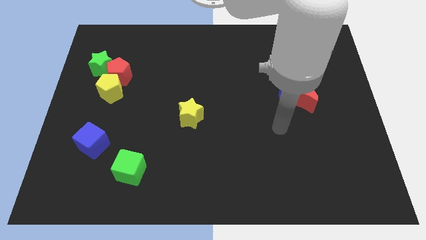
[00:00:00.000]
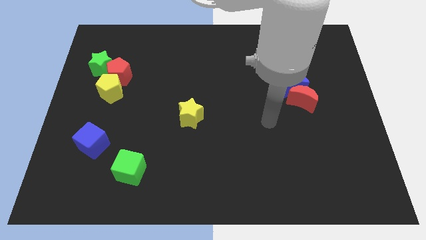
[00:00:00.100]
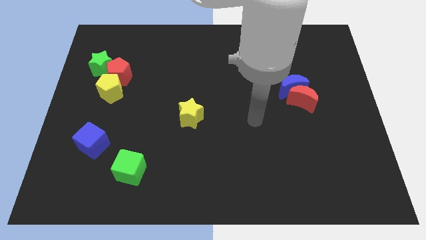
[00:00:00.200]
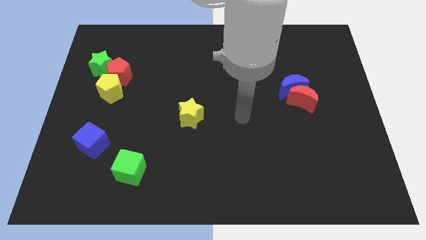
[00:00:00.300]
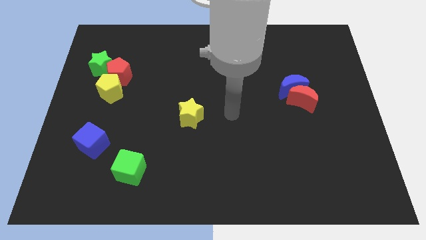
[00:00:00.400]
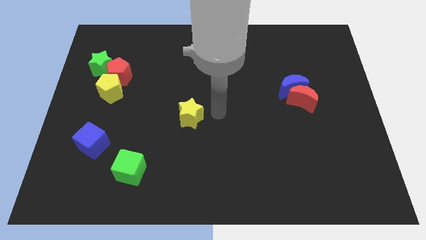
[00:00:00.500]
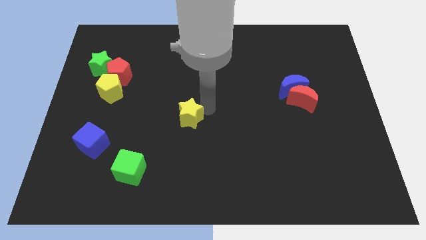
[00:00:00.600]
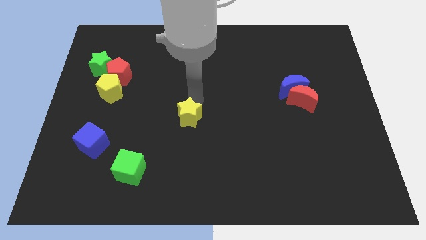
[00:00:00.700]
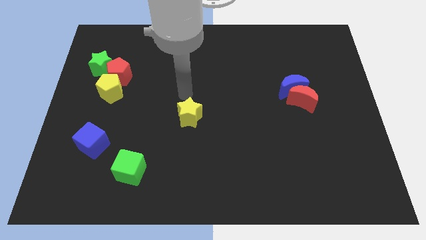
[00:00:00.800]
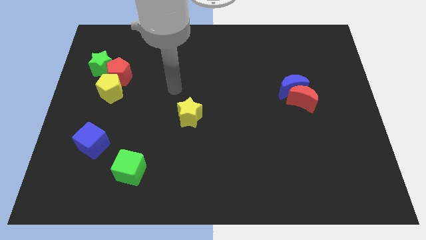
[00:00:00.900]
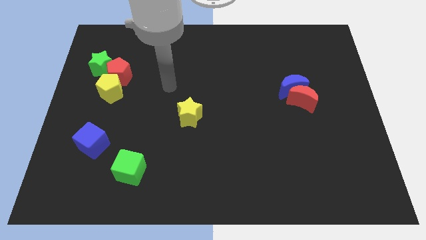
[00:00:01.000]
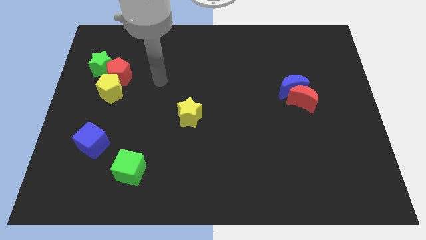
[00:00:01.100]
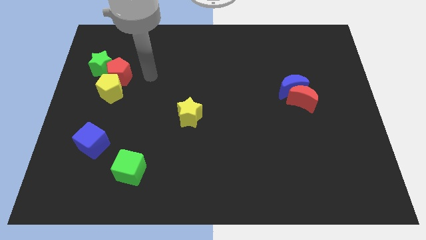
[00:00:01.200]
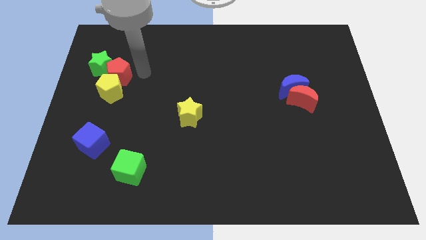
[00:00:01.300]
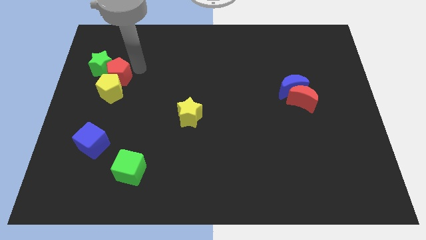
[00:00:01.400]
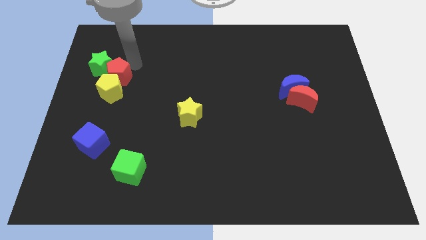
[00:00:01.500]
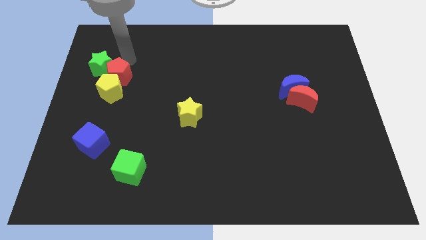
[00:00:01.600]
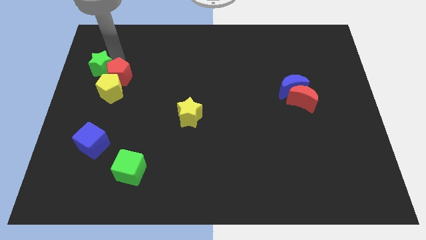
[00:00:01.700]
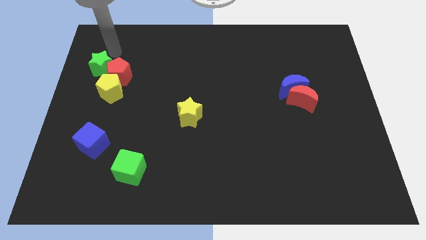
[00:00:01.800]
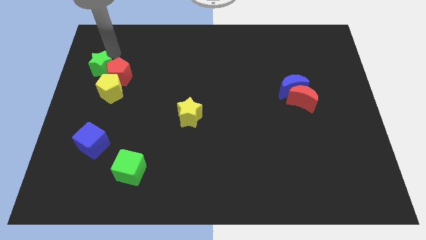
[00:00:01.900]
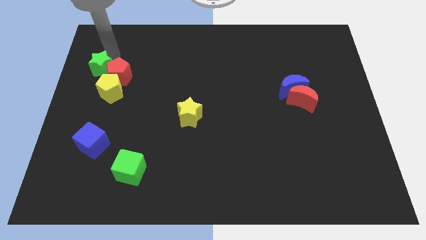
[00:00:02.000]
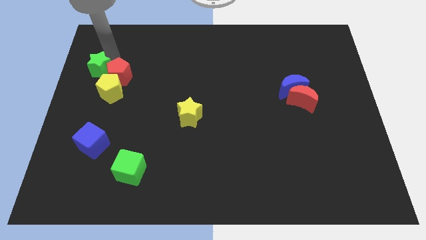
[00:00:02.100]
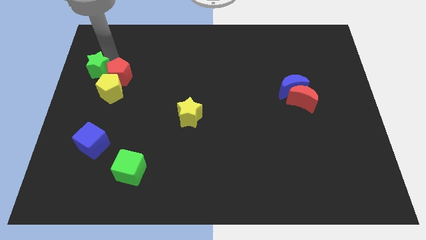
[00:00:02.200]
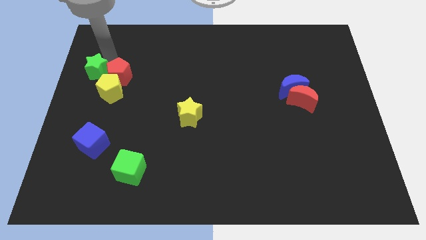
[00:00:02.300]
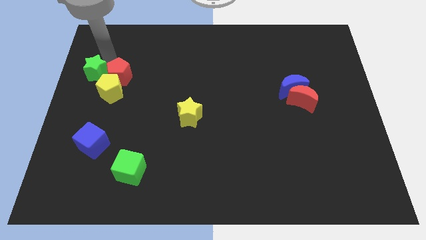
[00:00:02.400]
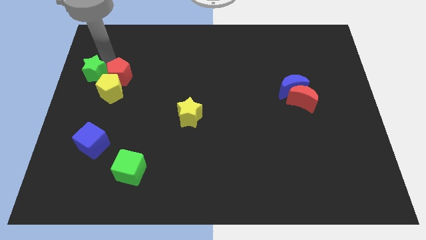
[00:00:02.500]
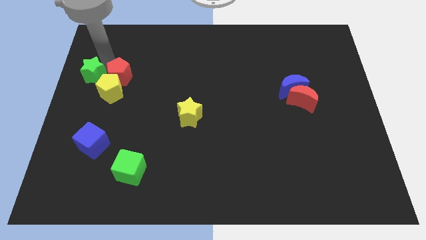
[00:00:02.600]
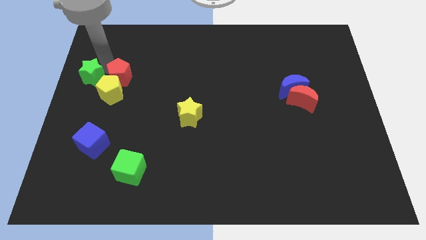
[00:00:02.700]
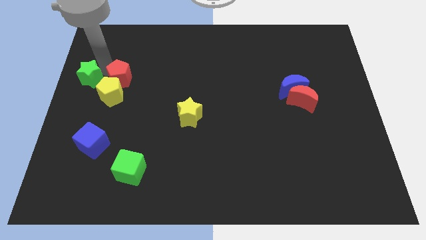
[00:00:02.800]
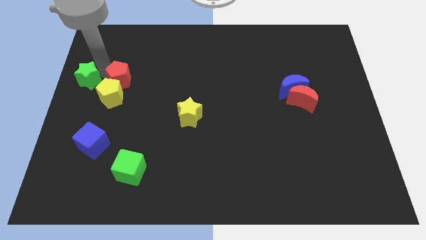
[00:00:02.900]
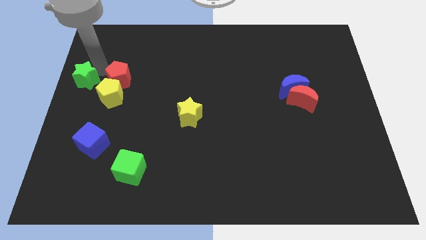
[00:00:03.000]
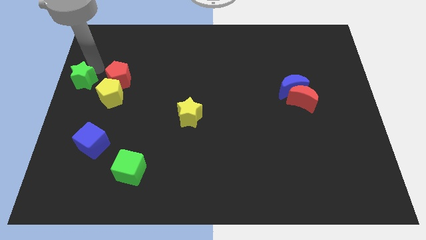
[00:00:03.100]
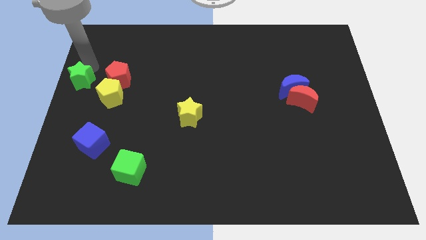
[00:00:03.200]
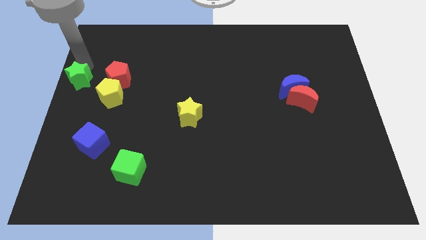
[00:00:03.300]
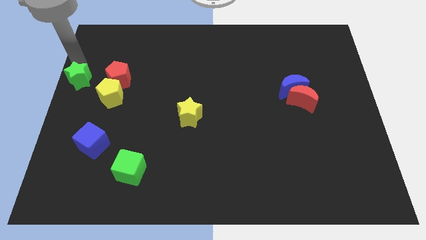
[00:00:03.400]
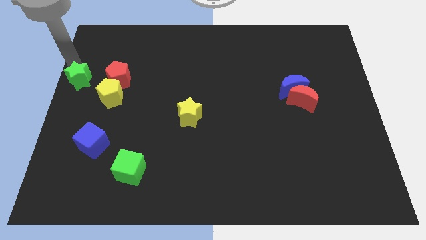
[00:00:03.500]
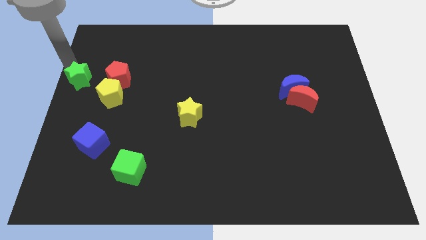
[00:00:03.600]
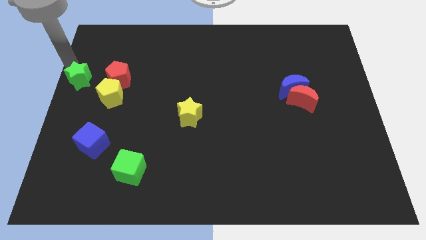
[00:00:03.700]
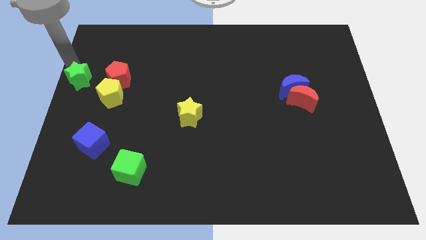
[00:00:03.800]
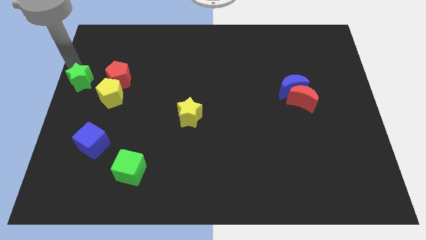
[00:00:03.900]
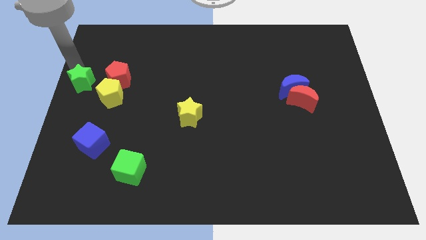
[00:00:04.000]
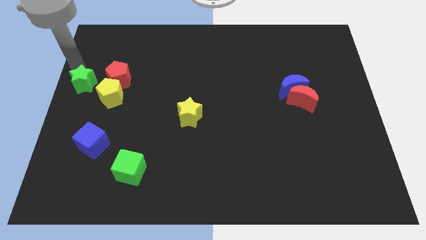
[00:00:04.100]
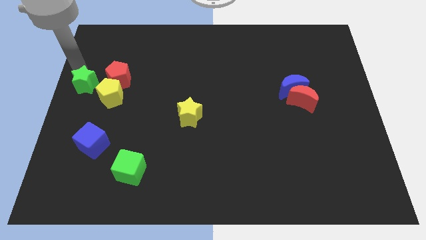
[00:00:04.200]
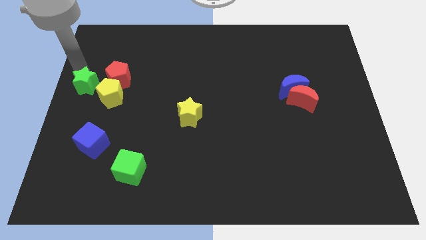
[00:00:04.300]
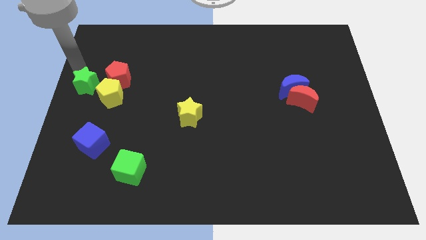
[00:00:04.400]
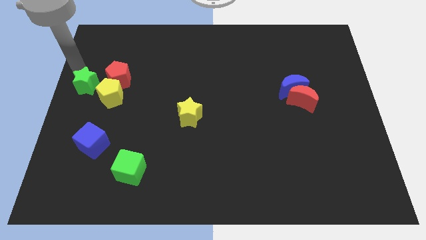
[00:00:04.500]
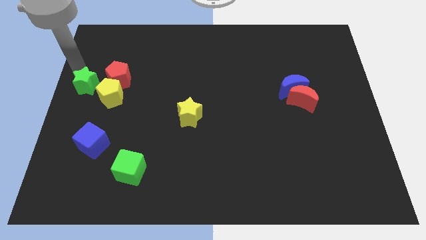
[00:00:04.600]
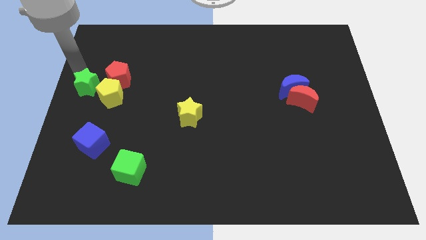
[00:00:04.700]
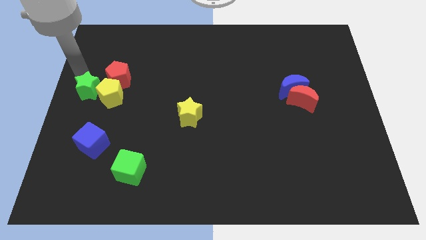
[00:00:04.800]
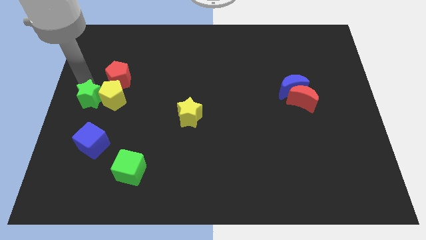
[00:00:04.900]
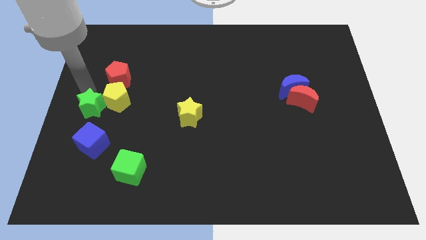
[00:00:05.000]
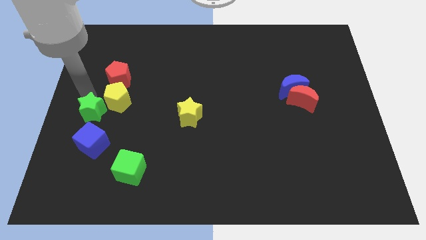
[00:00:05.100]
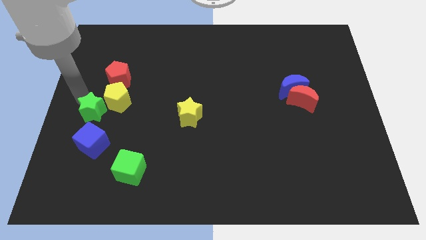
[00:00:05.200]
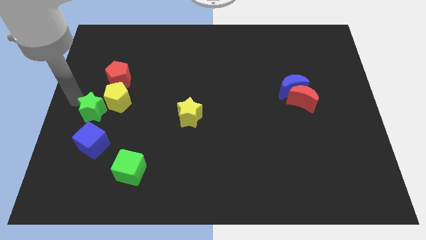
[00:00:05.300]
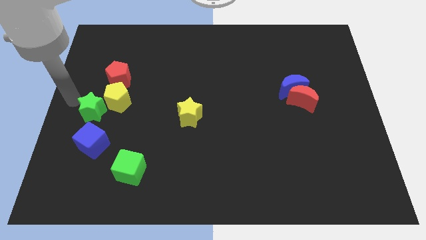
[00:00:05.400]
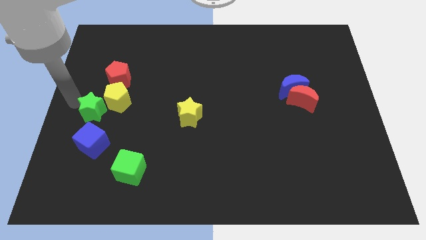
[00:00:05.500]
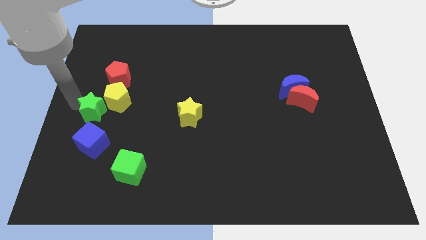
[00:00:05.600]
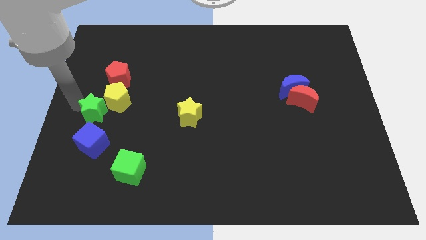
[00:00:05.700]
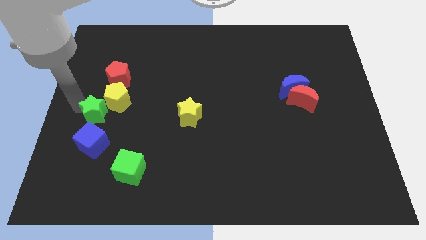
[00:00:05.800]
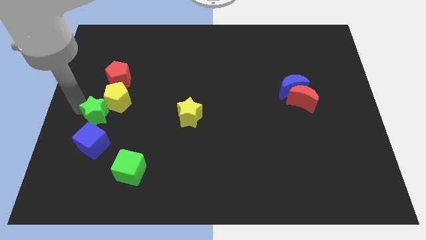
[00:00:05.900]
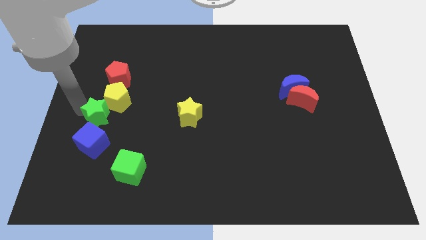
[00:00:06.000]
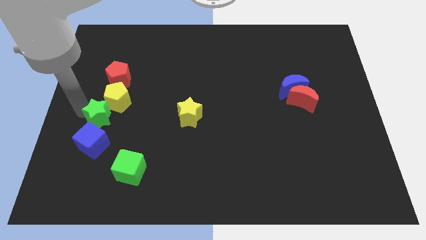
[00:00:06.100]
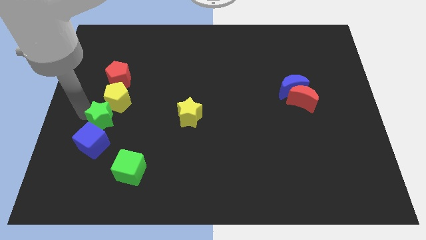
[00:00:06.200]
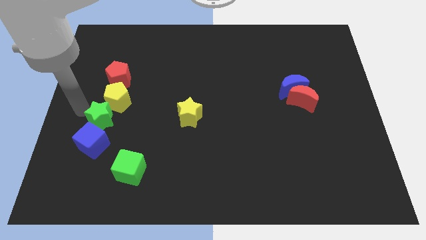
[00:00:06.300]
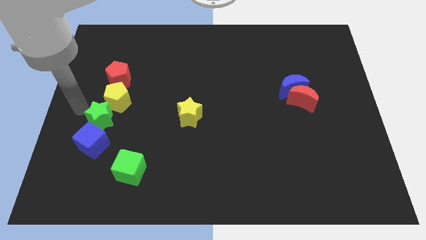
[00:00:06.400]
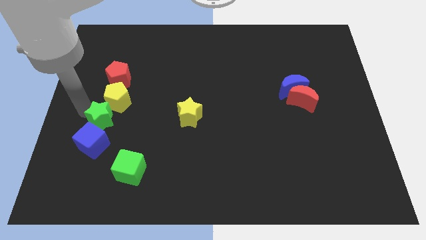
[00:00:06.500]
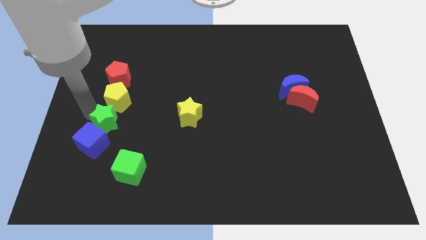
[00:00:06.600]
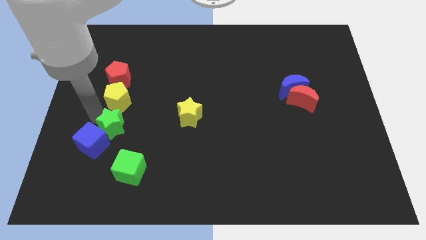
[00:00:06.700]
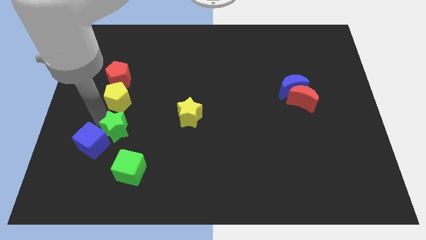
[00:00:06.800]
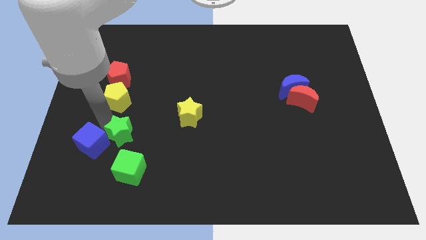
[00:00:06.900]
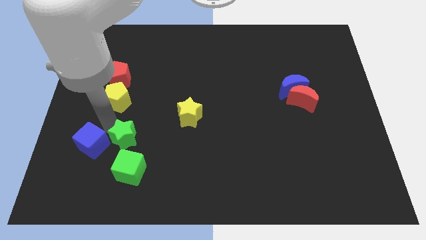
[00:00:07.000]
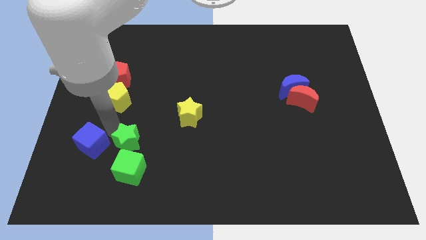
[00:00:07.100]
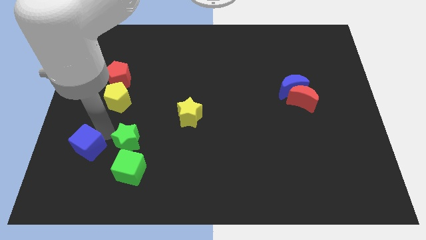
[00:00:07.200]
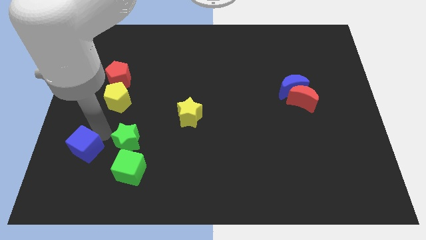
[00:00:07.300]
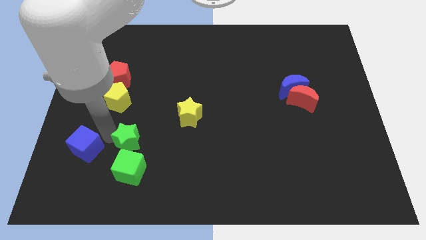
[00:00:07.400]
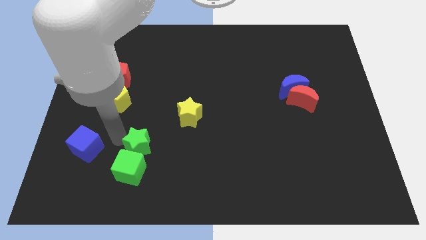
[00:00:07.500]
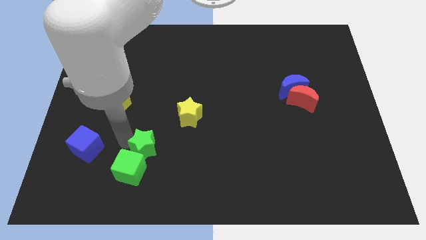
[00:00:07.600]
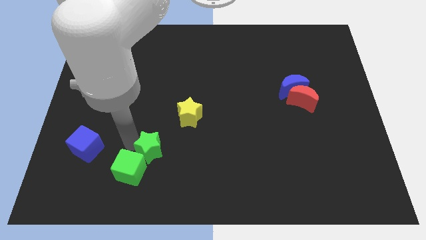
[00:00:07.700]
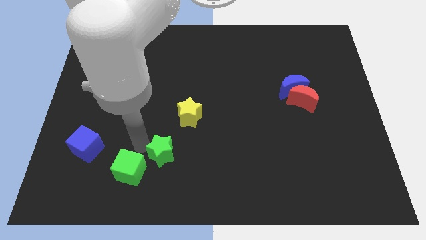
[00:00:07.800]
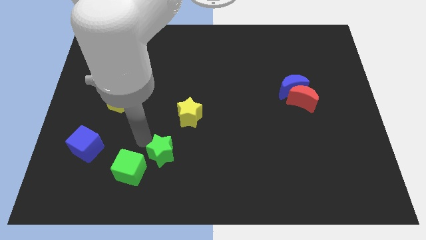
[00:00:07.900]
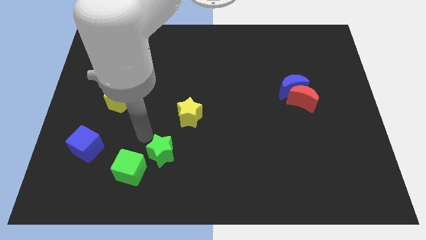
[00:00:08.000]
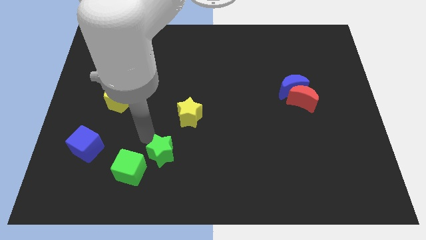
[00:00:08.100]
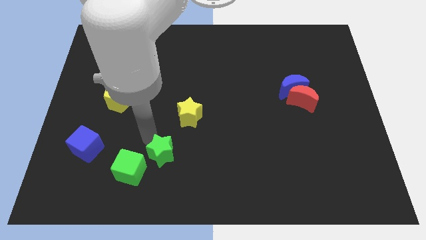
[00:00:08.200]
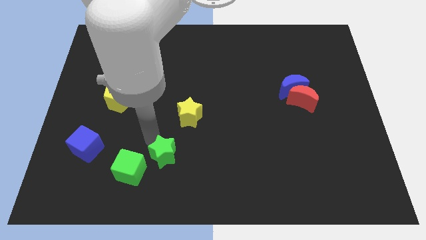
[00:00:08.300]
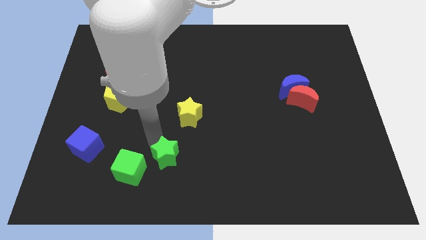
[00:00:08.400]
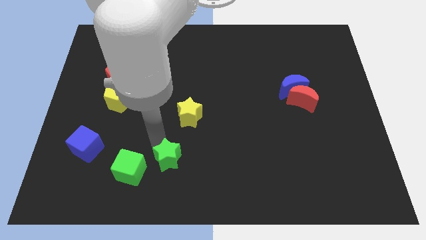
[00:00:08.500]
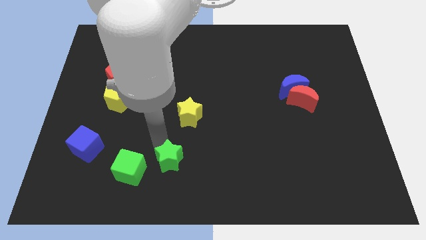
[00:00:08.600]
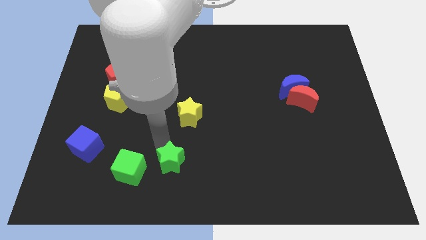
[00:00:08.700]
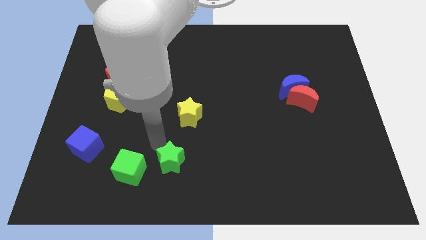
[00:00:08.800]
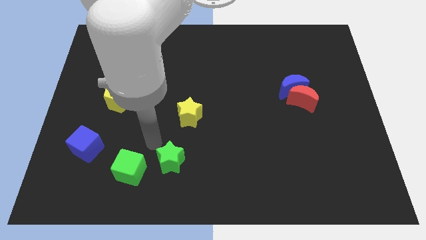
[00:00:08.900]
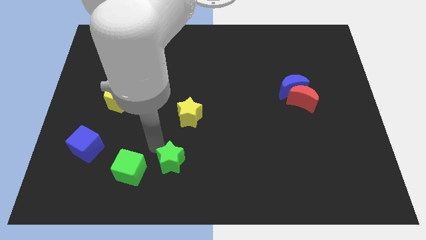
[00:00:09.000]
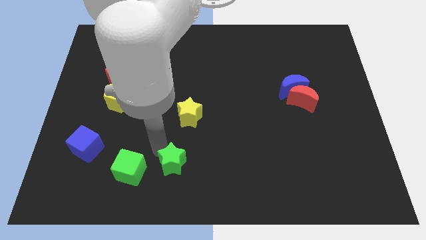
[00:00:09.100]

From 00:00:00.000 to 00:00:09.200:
move the green star to the bottom
